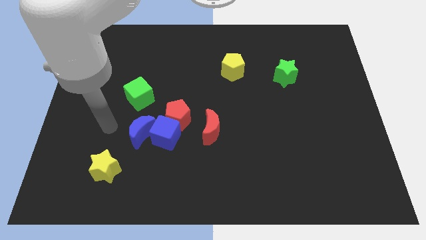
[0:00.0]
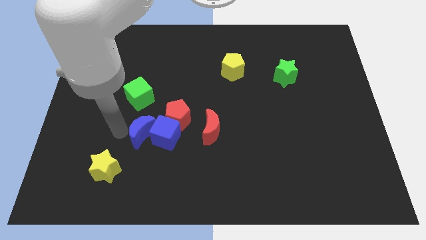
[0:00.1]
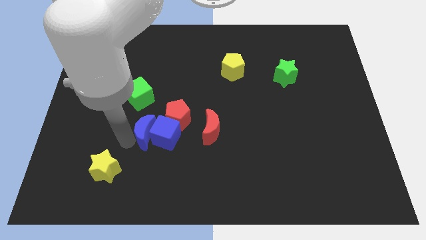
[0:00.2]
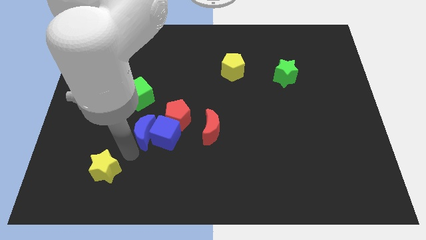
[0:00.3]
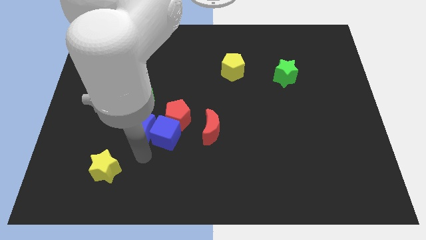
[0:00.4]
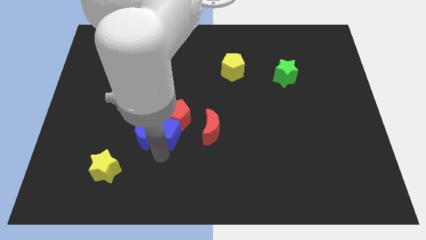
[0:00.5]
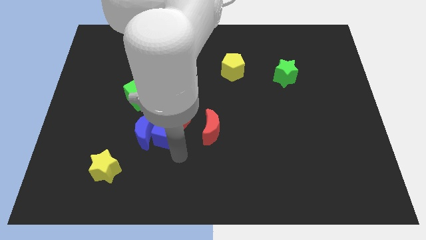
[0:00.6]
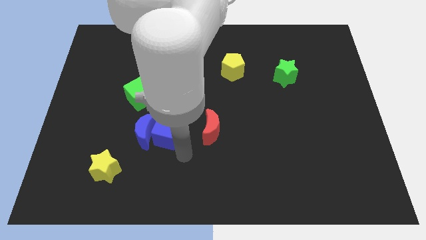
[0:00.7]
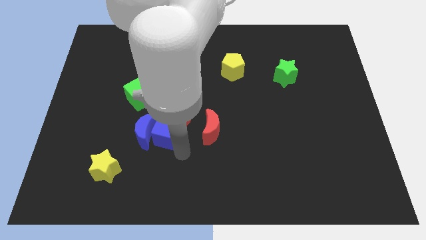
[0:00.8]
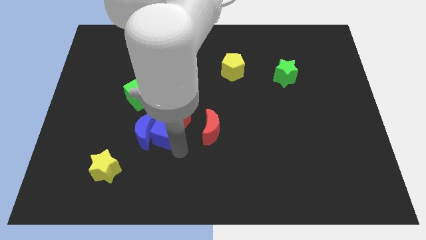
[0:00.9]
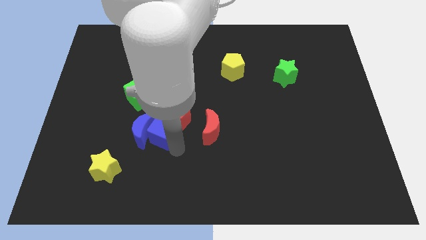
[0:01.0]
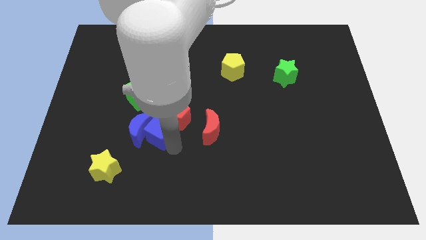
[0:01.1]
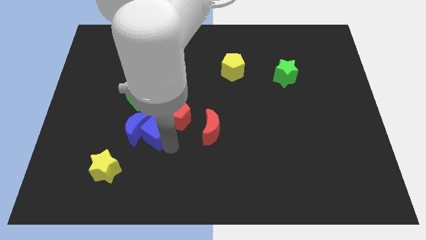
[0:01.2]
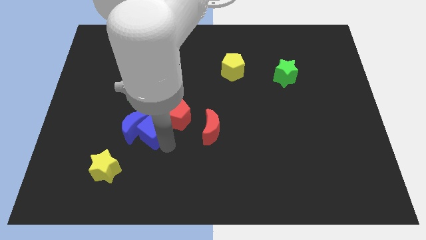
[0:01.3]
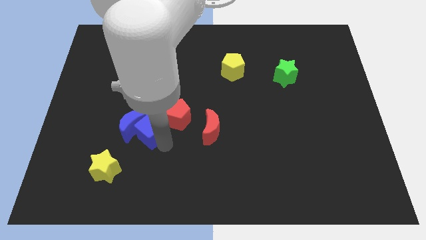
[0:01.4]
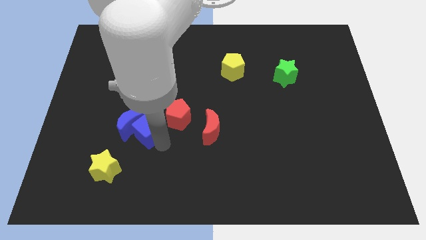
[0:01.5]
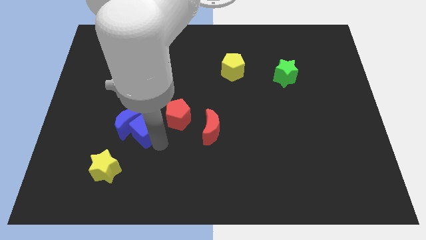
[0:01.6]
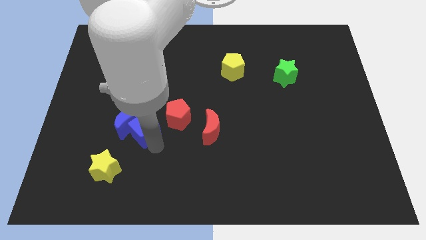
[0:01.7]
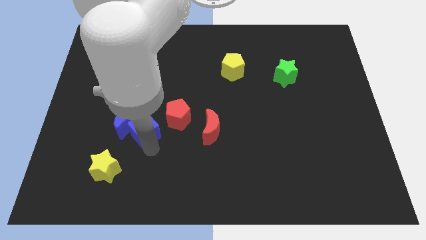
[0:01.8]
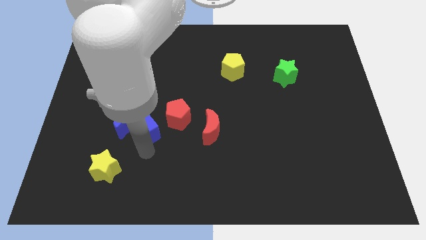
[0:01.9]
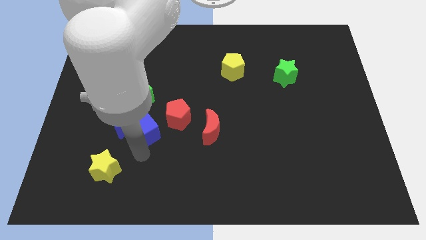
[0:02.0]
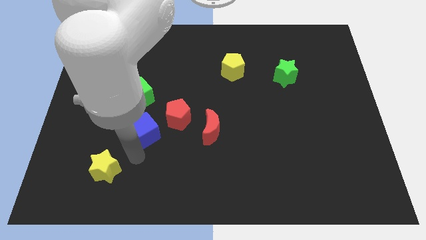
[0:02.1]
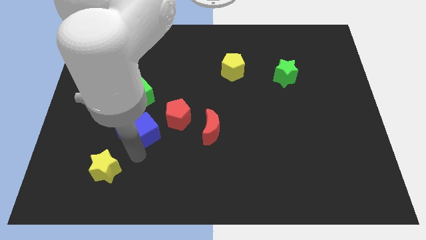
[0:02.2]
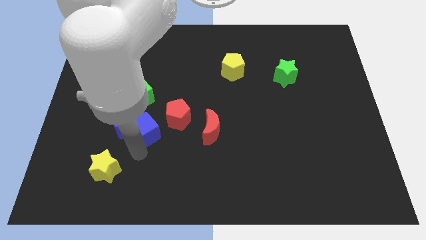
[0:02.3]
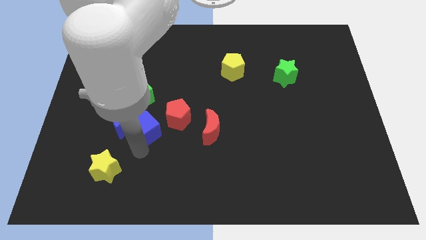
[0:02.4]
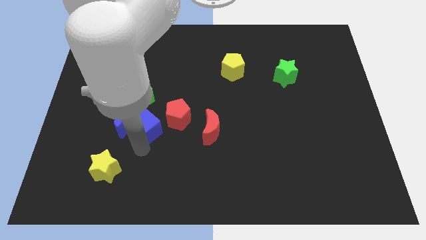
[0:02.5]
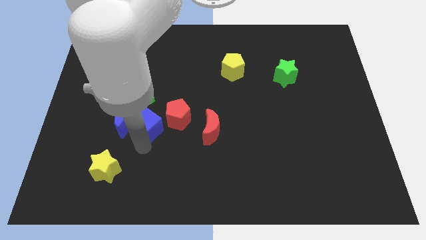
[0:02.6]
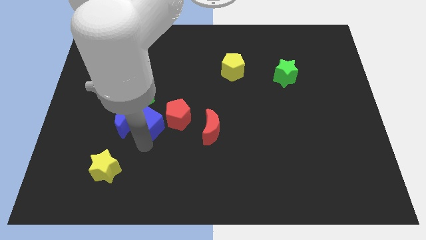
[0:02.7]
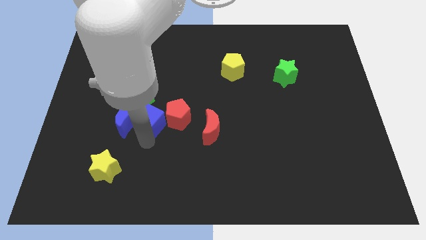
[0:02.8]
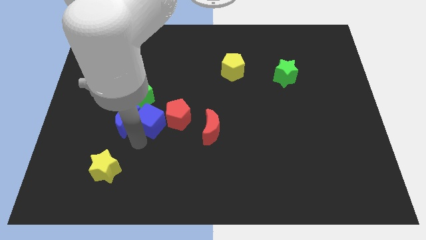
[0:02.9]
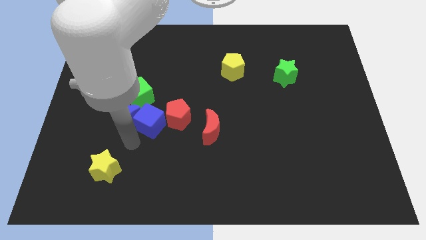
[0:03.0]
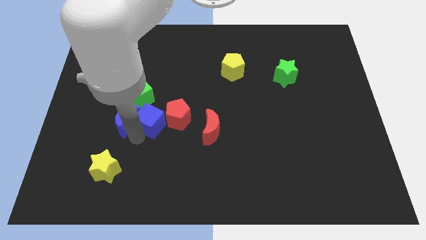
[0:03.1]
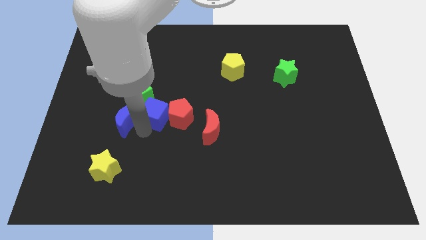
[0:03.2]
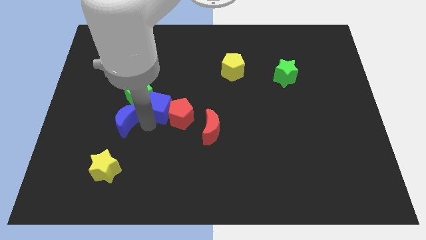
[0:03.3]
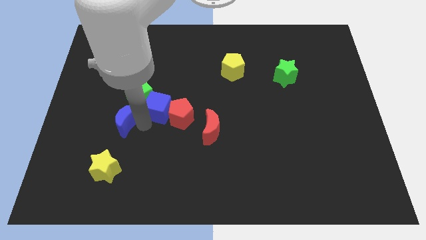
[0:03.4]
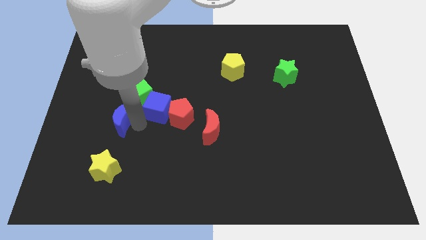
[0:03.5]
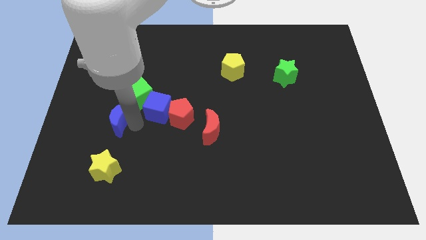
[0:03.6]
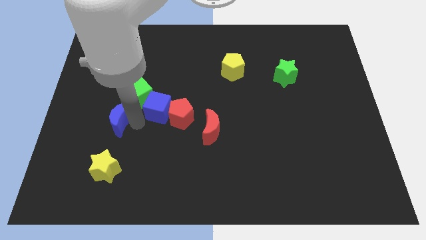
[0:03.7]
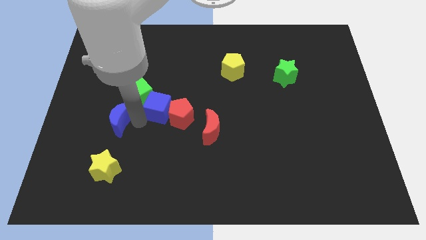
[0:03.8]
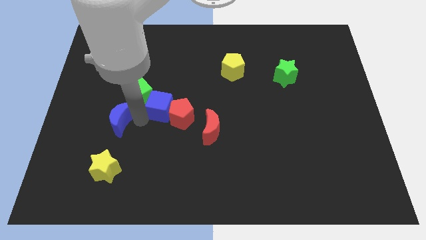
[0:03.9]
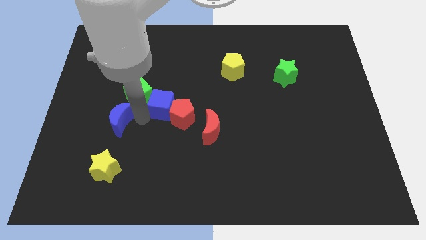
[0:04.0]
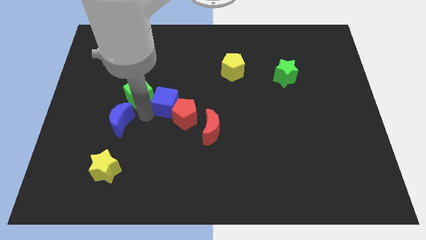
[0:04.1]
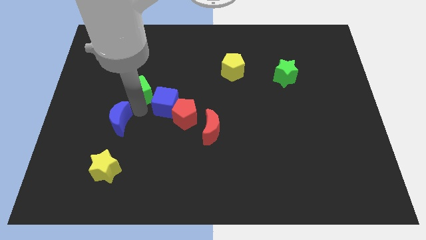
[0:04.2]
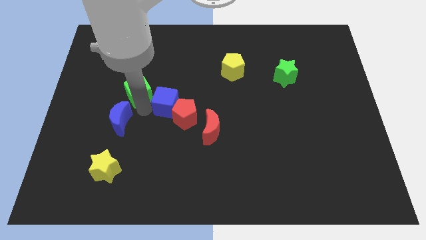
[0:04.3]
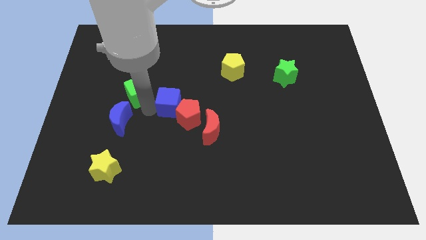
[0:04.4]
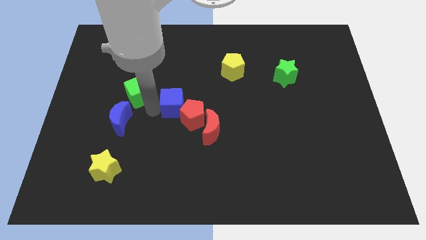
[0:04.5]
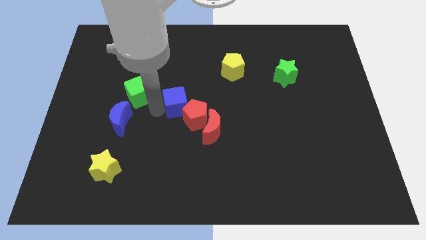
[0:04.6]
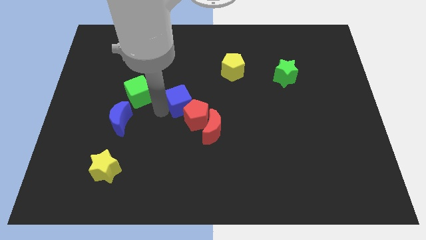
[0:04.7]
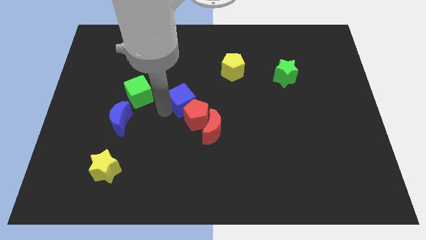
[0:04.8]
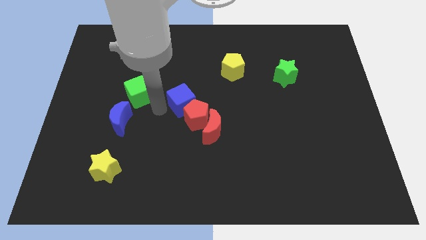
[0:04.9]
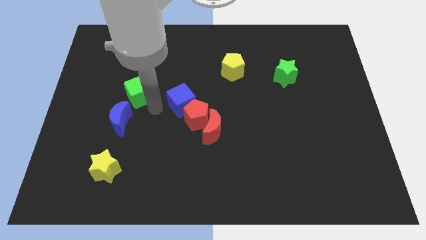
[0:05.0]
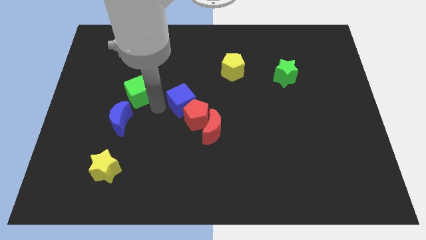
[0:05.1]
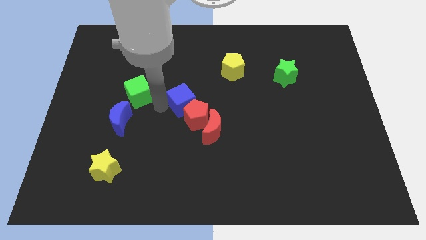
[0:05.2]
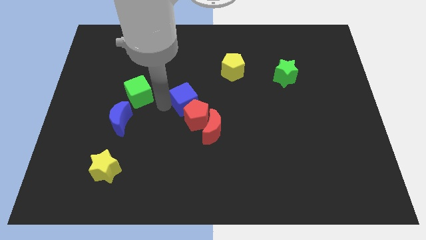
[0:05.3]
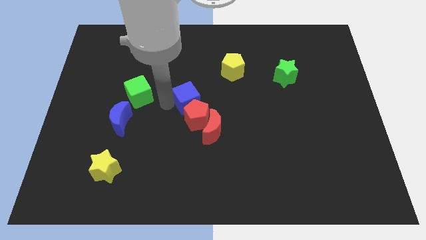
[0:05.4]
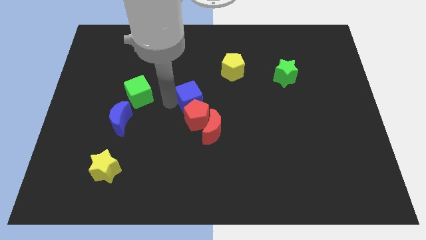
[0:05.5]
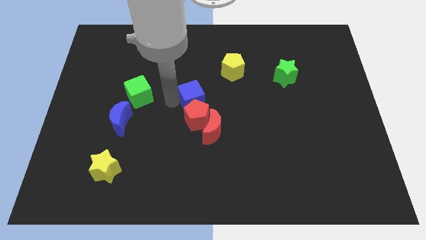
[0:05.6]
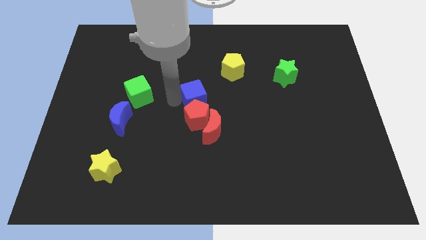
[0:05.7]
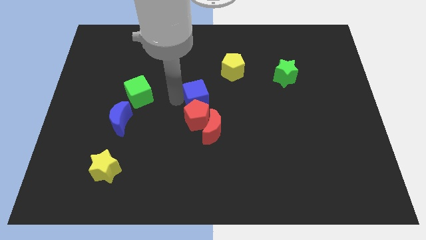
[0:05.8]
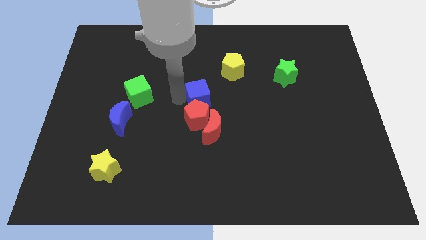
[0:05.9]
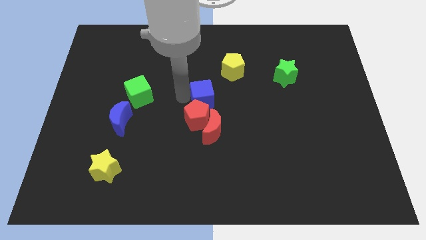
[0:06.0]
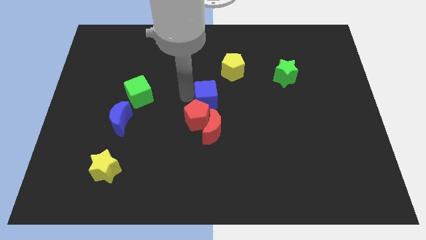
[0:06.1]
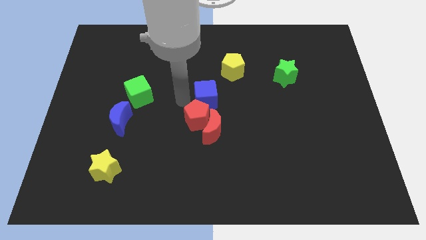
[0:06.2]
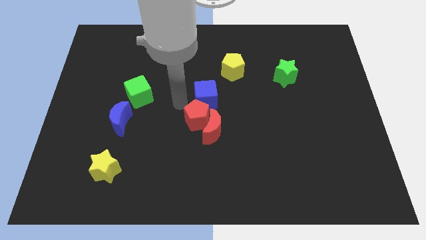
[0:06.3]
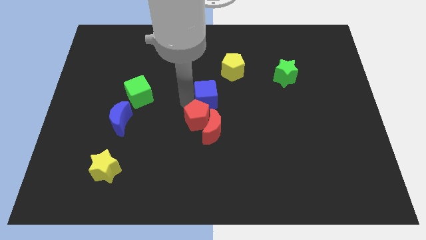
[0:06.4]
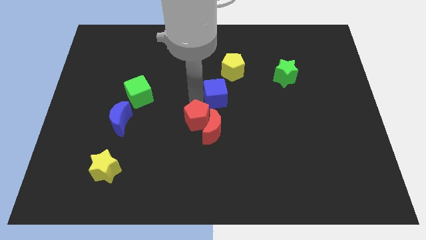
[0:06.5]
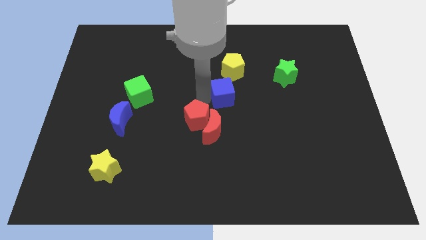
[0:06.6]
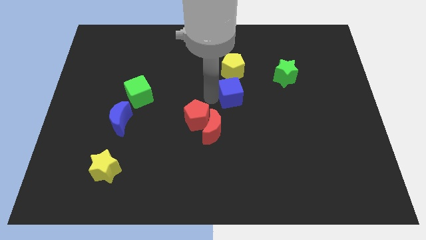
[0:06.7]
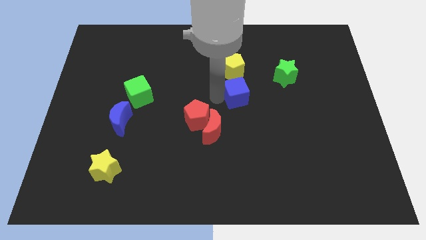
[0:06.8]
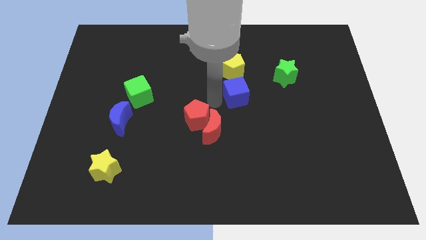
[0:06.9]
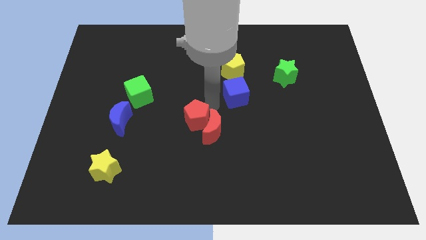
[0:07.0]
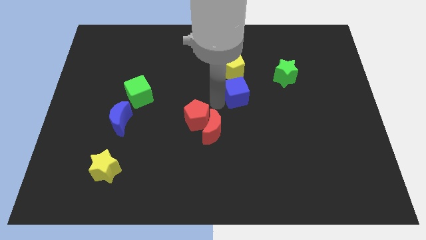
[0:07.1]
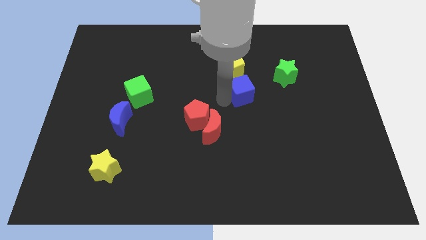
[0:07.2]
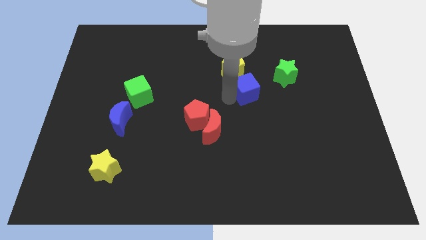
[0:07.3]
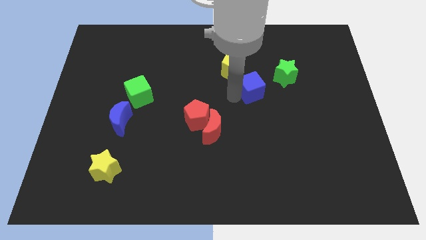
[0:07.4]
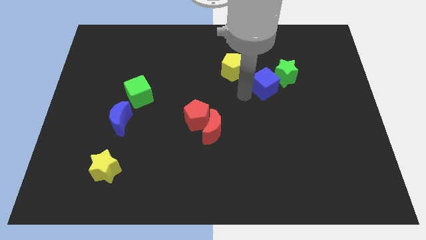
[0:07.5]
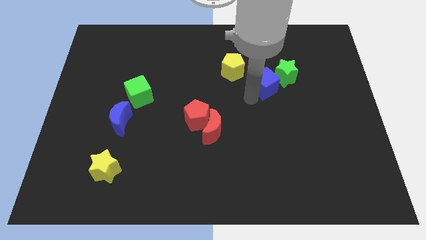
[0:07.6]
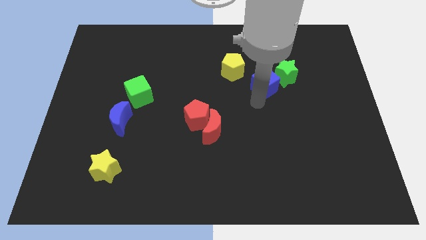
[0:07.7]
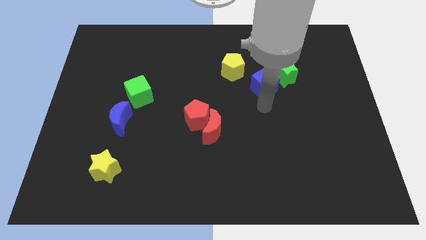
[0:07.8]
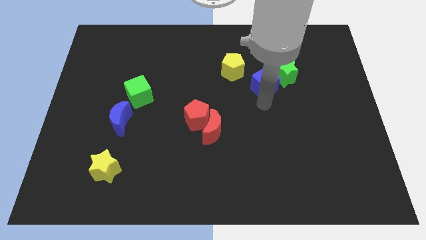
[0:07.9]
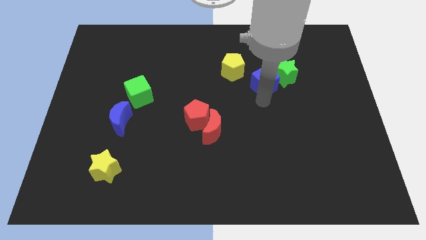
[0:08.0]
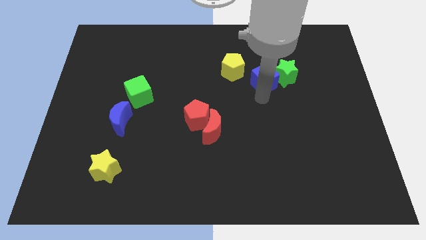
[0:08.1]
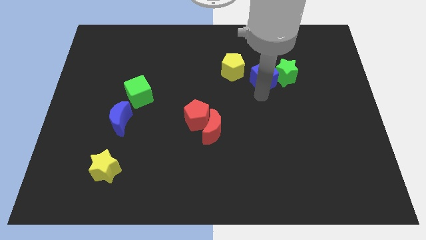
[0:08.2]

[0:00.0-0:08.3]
move the blue cube to the top left of the green star
